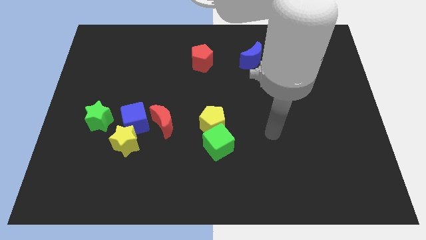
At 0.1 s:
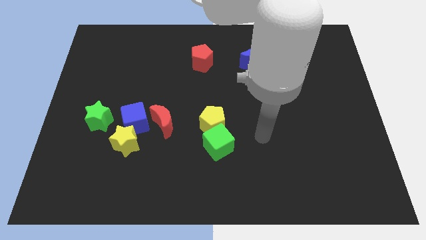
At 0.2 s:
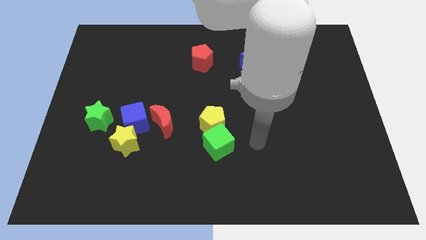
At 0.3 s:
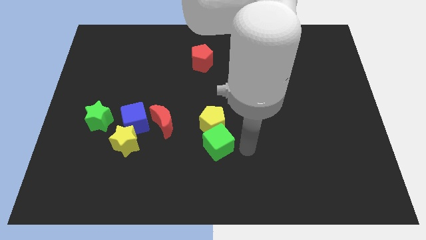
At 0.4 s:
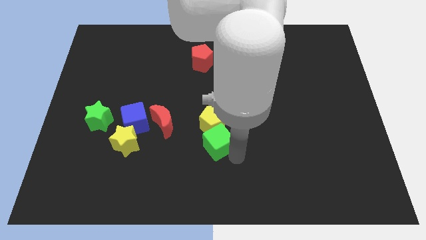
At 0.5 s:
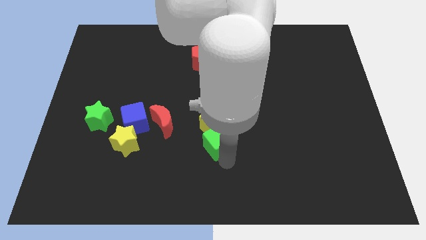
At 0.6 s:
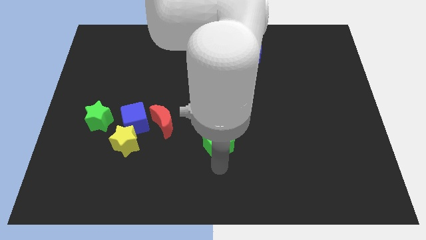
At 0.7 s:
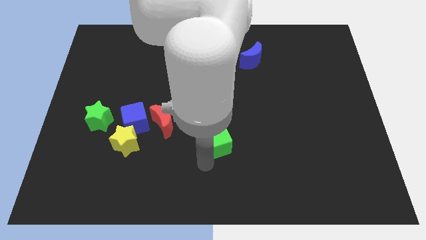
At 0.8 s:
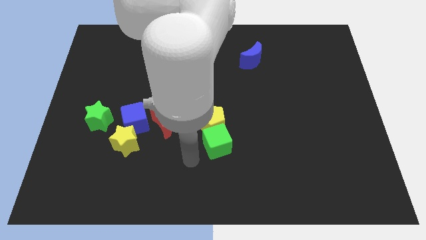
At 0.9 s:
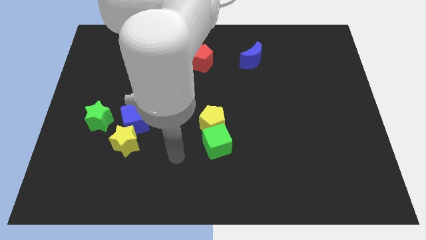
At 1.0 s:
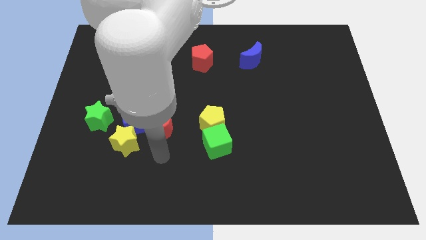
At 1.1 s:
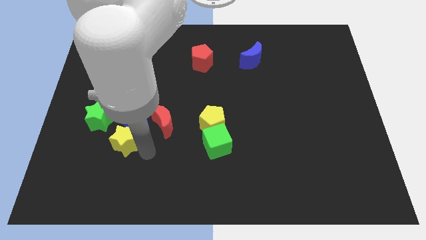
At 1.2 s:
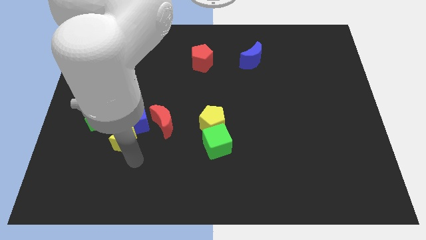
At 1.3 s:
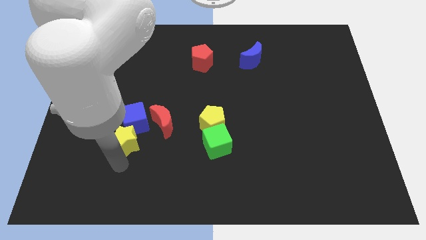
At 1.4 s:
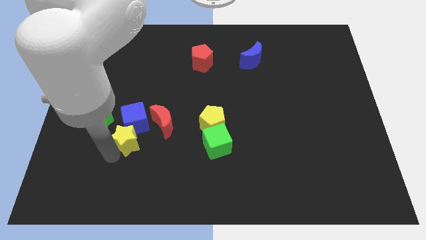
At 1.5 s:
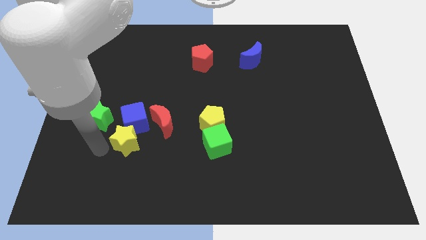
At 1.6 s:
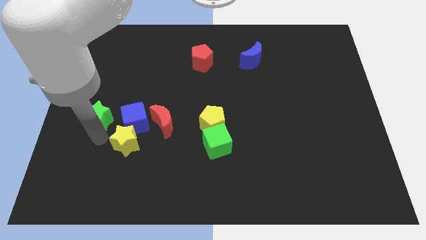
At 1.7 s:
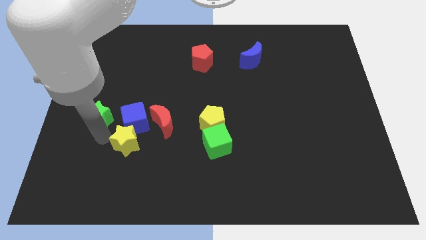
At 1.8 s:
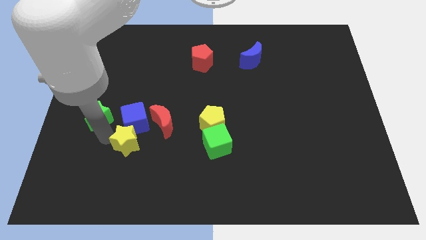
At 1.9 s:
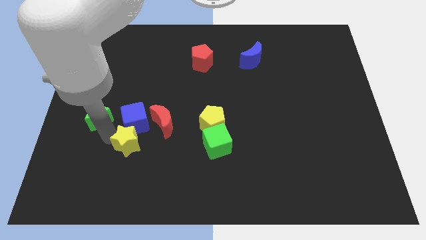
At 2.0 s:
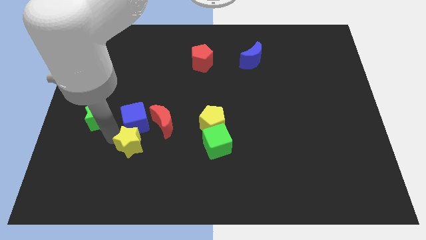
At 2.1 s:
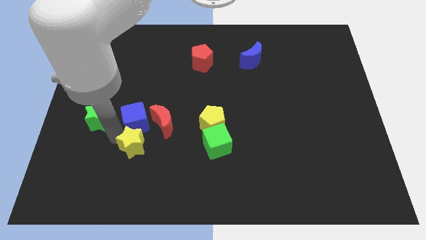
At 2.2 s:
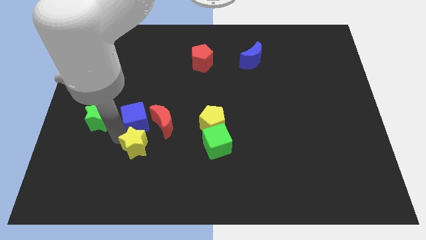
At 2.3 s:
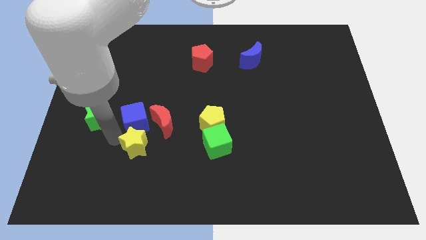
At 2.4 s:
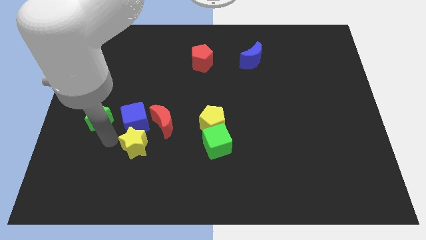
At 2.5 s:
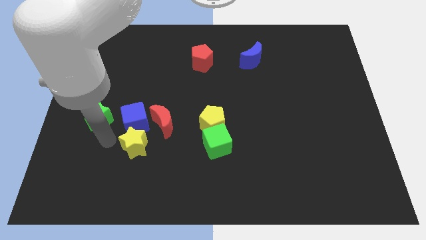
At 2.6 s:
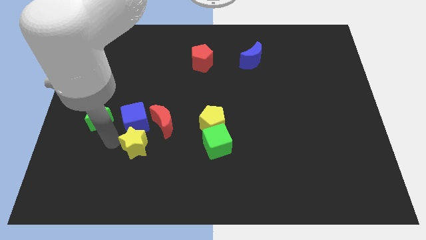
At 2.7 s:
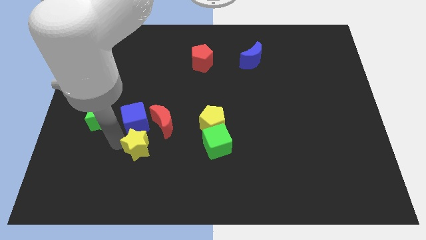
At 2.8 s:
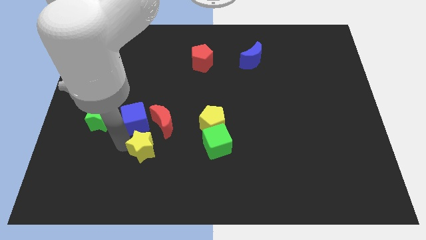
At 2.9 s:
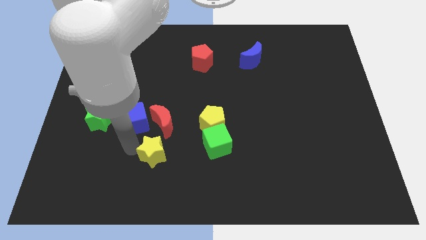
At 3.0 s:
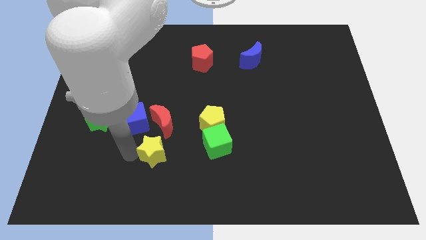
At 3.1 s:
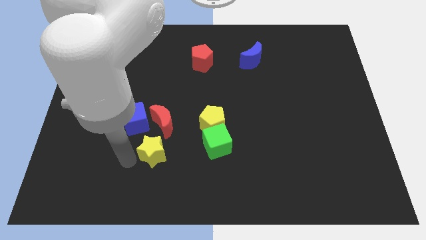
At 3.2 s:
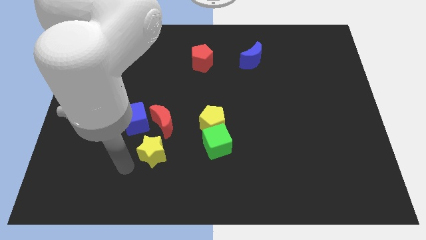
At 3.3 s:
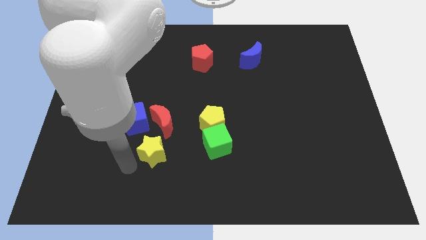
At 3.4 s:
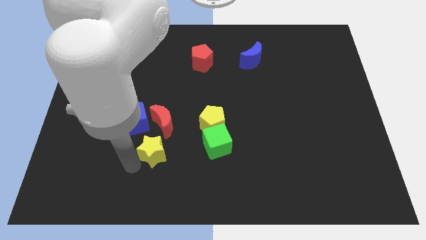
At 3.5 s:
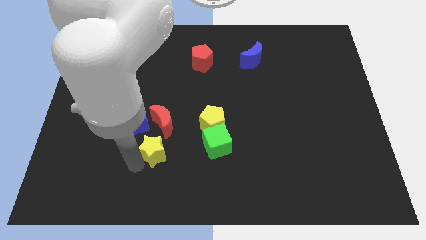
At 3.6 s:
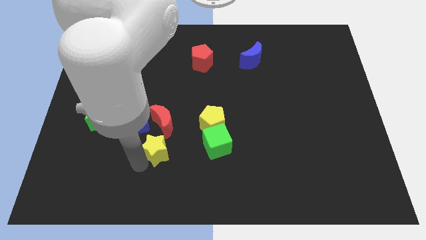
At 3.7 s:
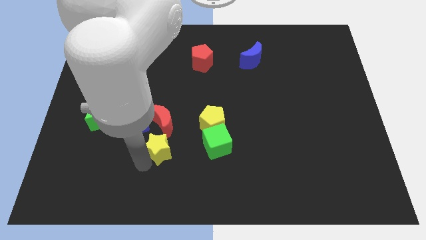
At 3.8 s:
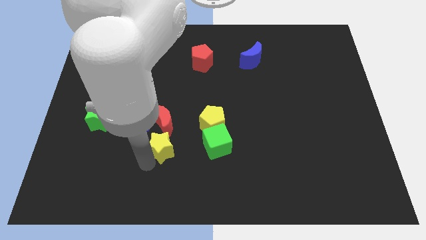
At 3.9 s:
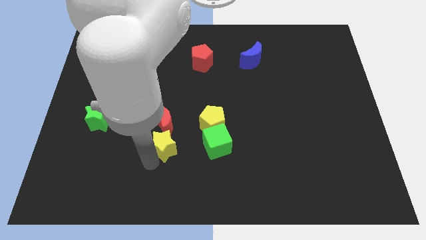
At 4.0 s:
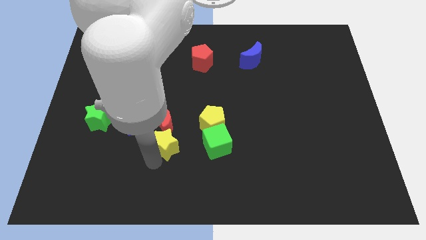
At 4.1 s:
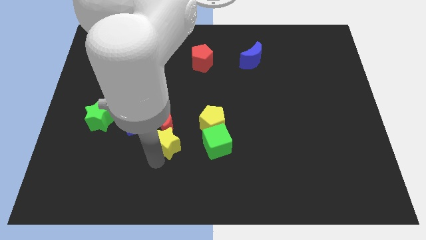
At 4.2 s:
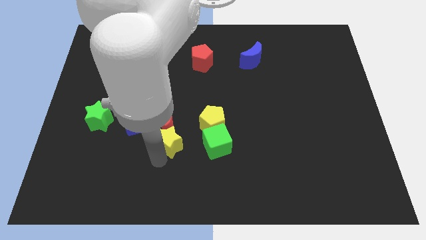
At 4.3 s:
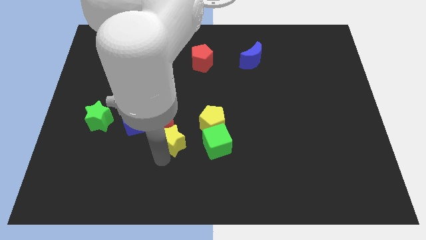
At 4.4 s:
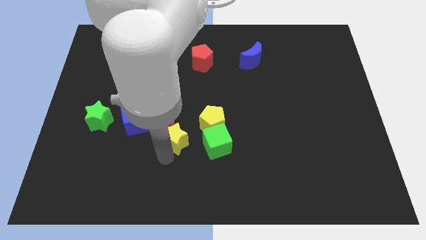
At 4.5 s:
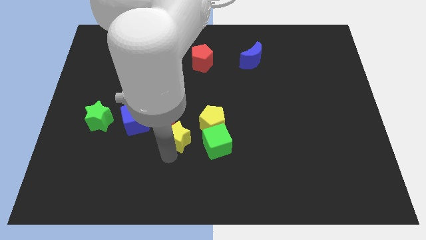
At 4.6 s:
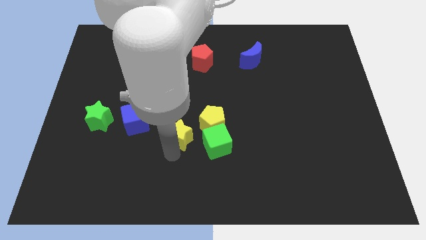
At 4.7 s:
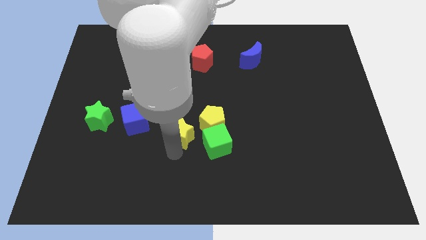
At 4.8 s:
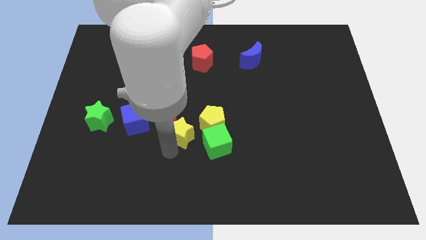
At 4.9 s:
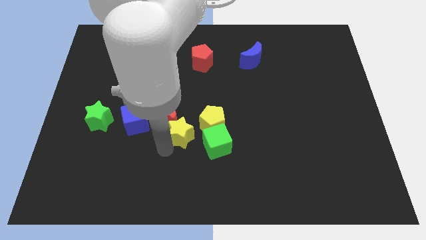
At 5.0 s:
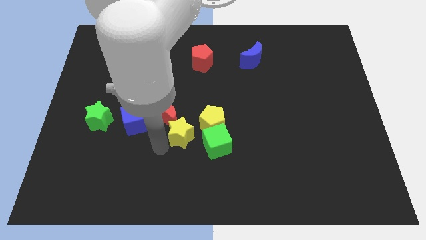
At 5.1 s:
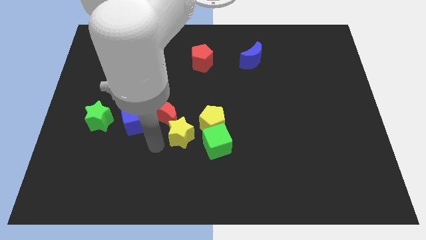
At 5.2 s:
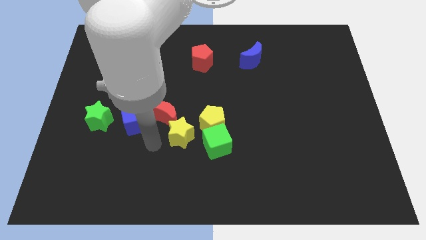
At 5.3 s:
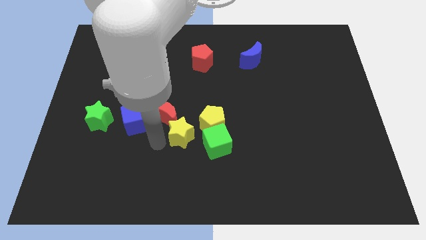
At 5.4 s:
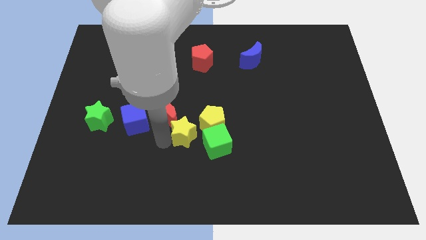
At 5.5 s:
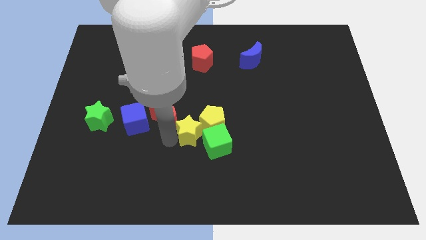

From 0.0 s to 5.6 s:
slide the yellow star next to the yellow pentagon

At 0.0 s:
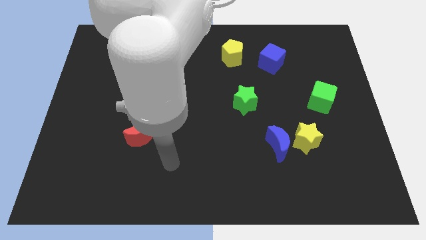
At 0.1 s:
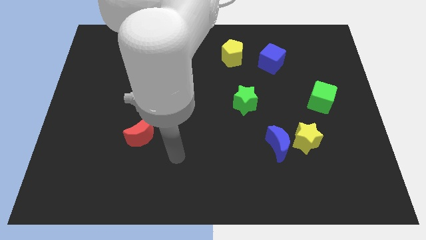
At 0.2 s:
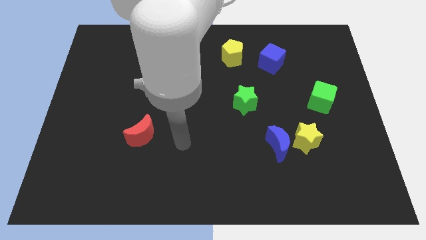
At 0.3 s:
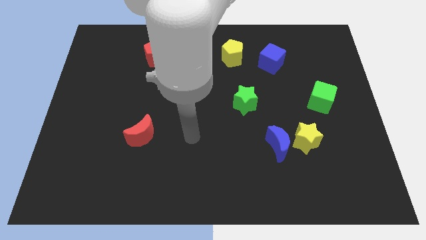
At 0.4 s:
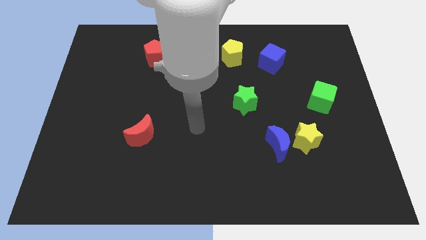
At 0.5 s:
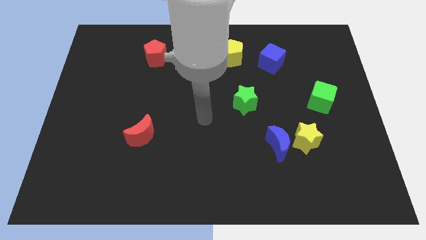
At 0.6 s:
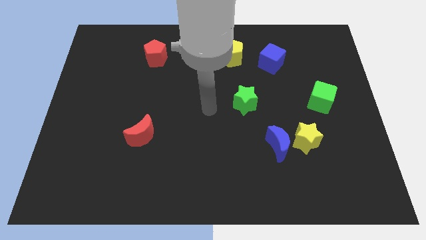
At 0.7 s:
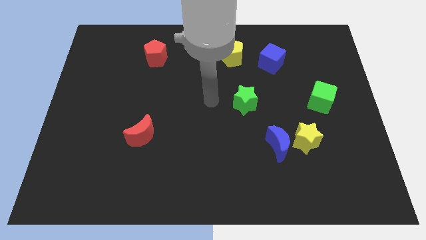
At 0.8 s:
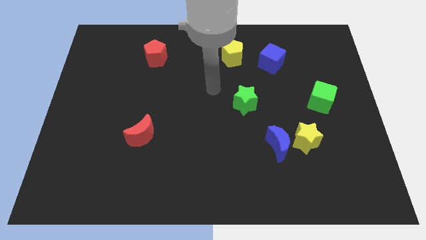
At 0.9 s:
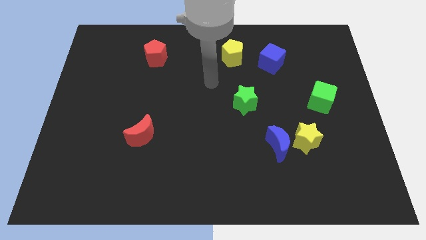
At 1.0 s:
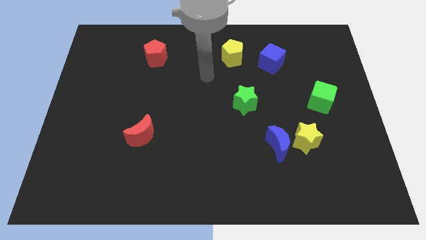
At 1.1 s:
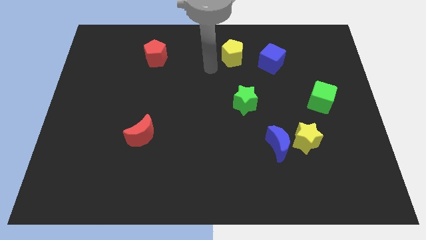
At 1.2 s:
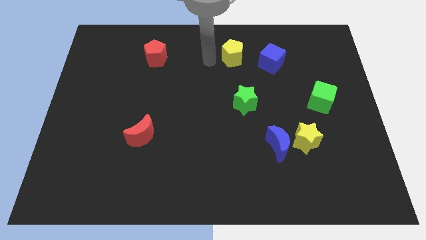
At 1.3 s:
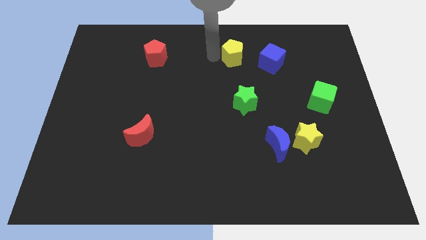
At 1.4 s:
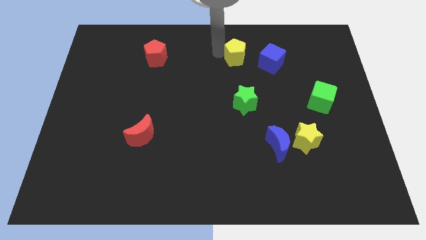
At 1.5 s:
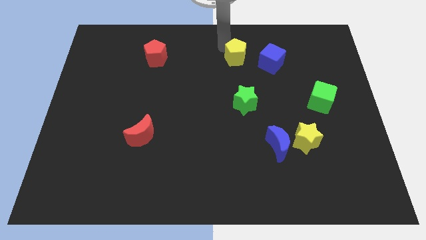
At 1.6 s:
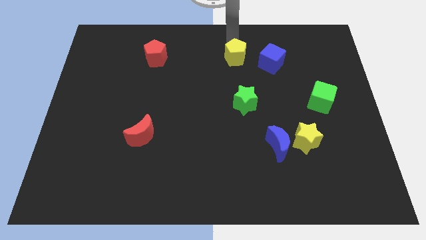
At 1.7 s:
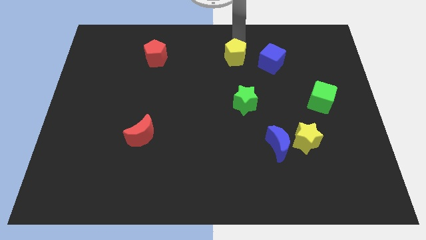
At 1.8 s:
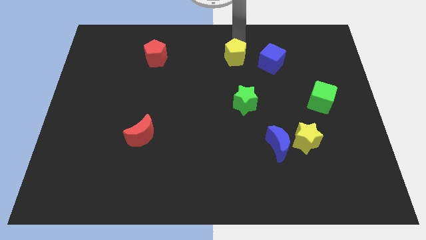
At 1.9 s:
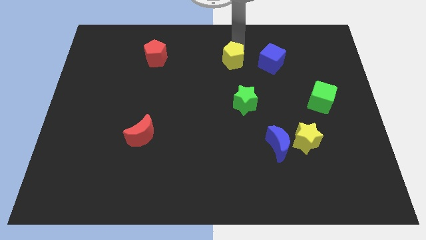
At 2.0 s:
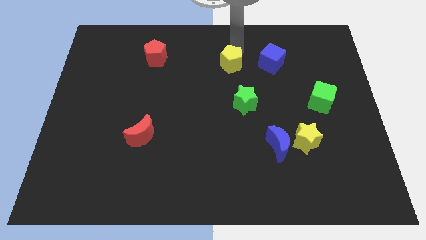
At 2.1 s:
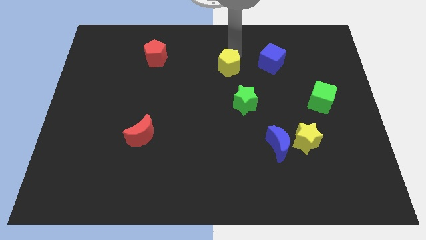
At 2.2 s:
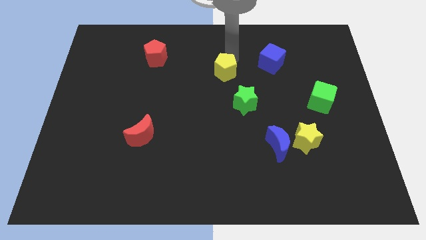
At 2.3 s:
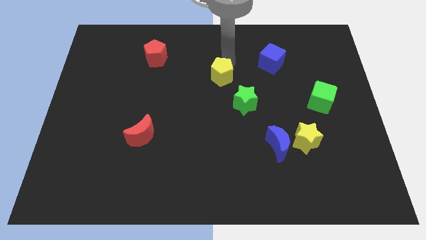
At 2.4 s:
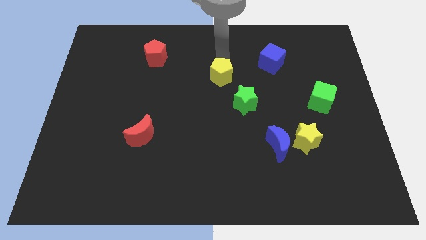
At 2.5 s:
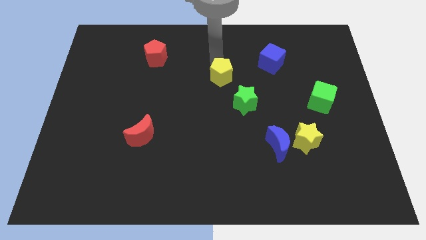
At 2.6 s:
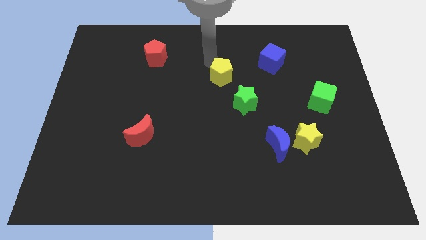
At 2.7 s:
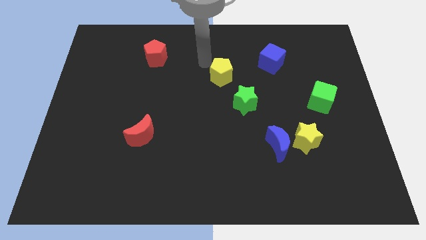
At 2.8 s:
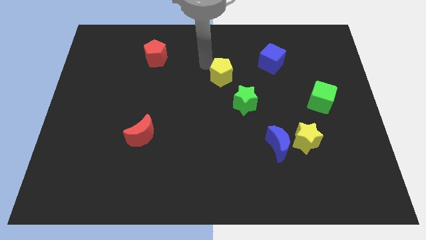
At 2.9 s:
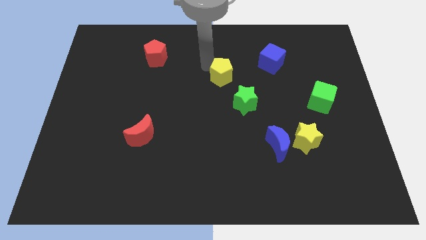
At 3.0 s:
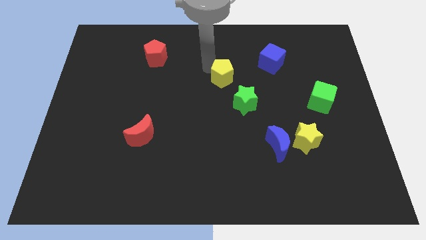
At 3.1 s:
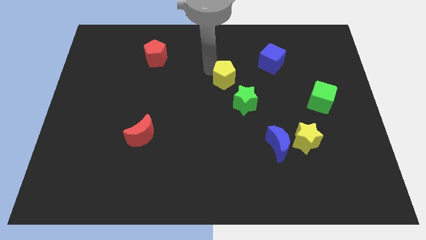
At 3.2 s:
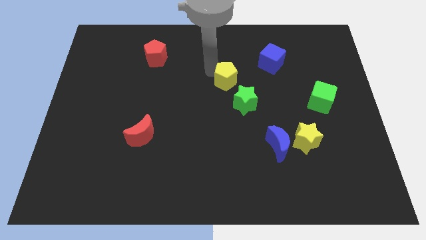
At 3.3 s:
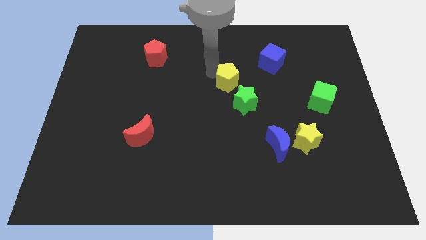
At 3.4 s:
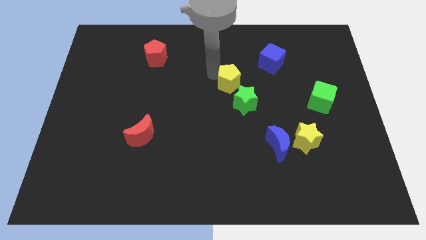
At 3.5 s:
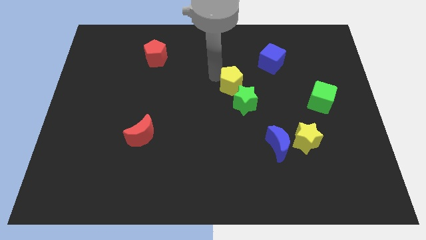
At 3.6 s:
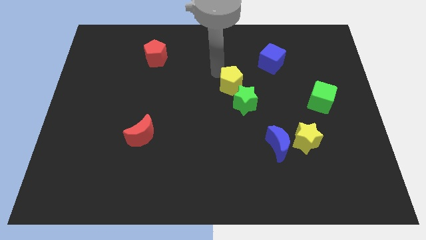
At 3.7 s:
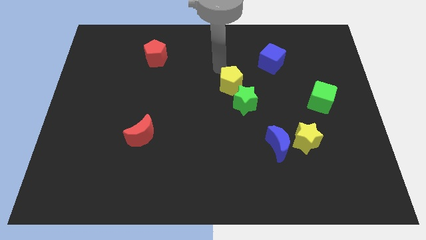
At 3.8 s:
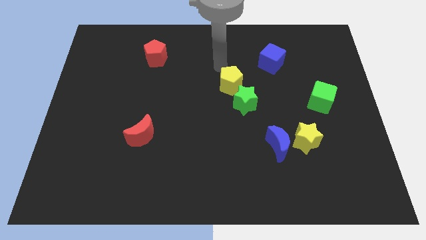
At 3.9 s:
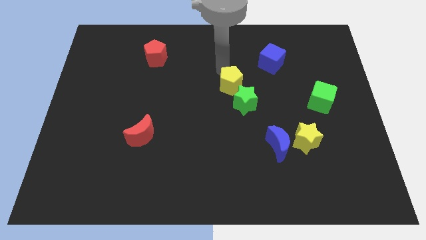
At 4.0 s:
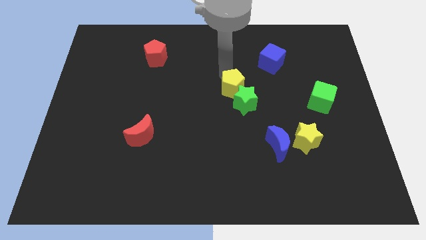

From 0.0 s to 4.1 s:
slide the yellow pentagon towards the green star
